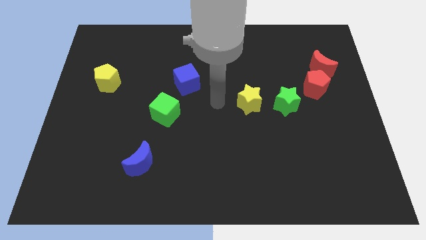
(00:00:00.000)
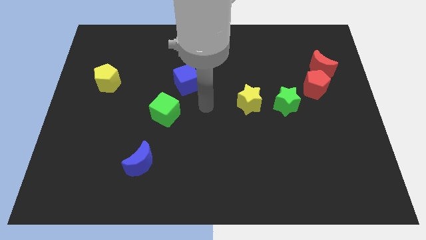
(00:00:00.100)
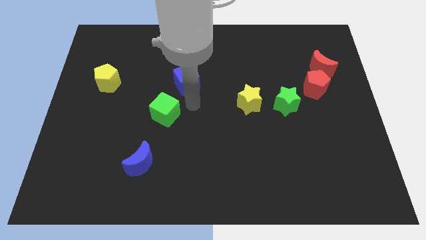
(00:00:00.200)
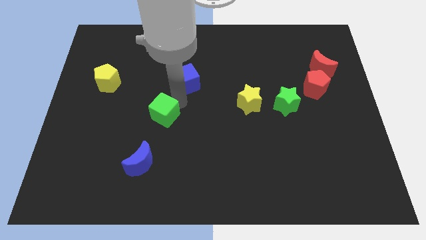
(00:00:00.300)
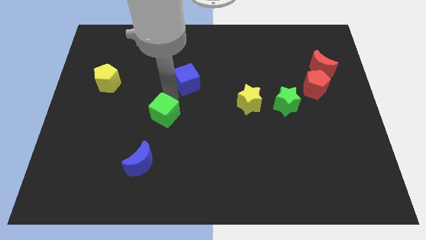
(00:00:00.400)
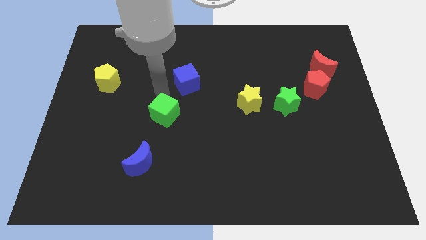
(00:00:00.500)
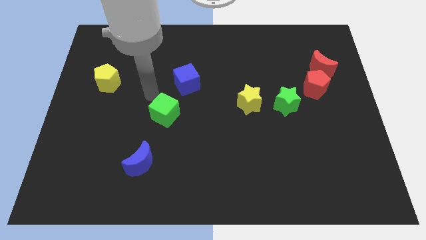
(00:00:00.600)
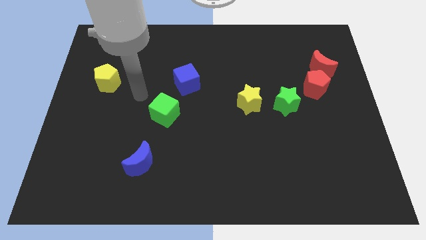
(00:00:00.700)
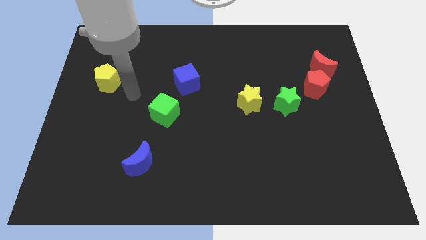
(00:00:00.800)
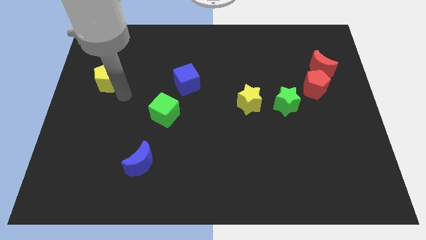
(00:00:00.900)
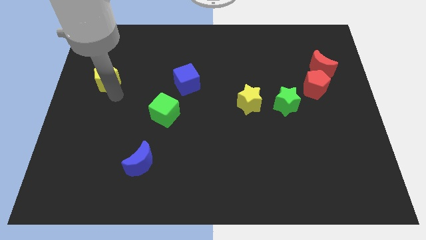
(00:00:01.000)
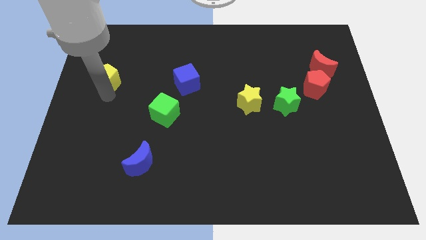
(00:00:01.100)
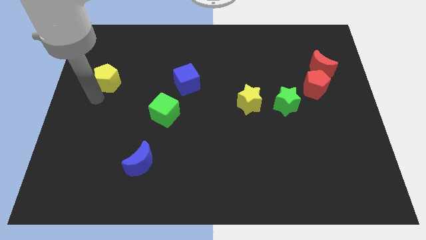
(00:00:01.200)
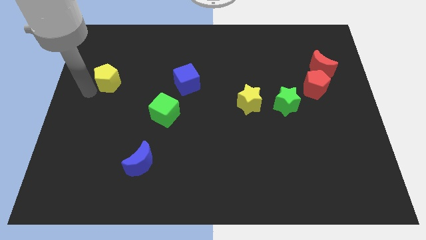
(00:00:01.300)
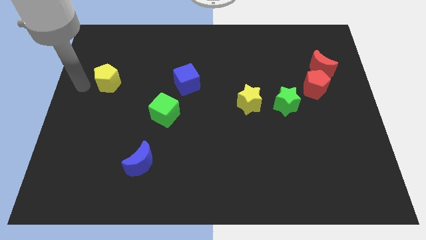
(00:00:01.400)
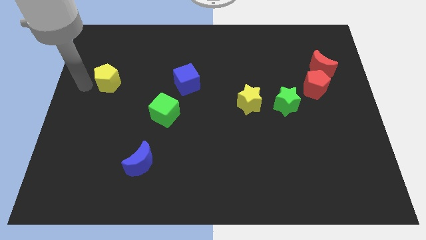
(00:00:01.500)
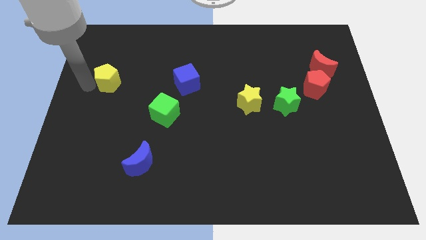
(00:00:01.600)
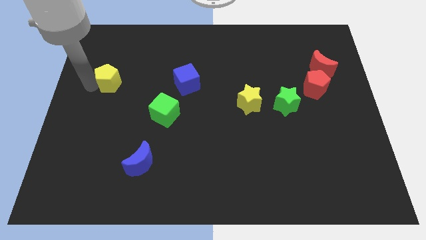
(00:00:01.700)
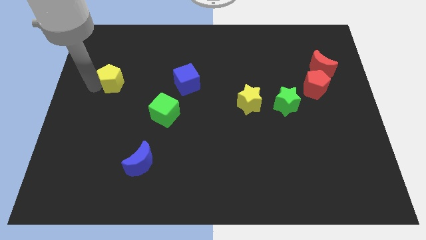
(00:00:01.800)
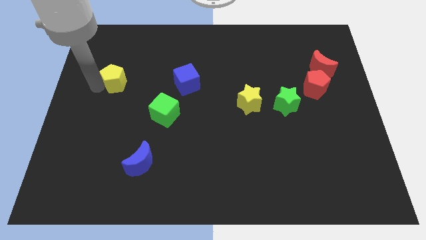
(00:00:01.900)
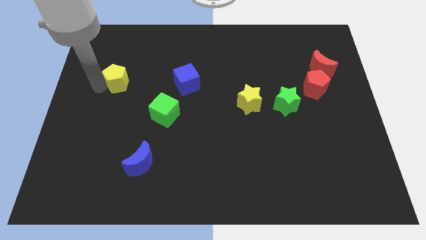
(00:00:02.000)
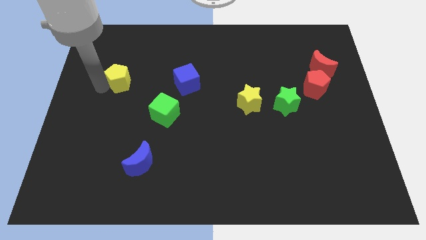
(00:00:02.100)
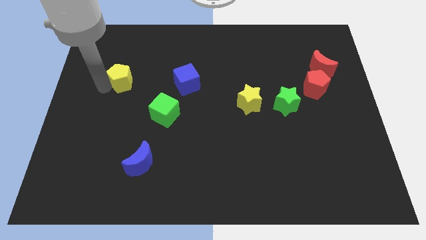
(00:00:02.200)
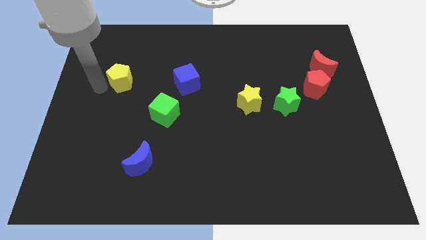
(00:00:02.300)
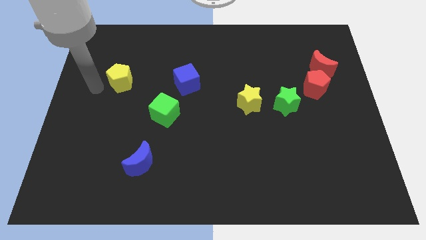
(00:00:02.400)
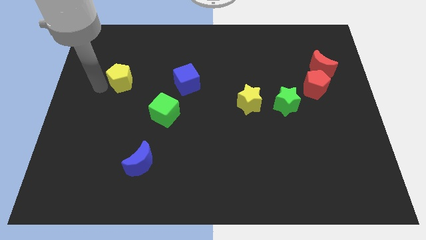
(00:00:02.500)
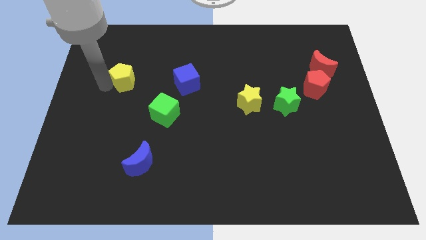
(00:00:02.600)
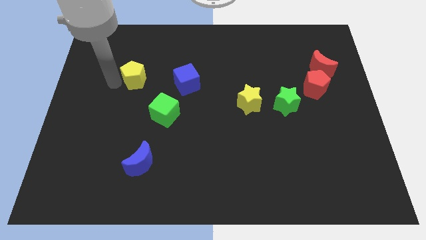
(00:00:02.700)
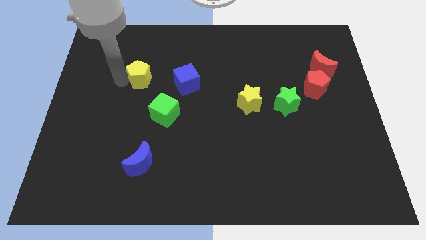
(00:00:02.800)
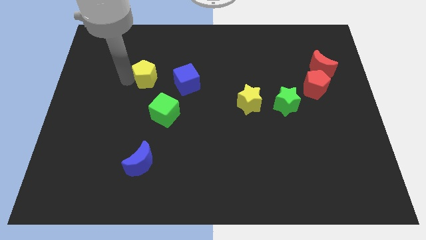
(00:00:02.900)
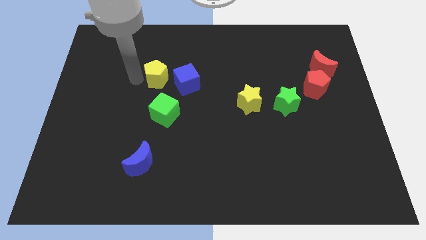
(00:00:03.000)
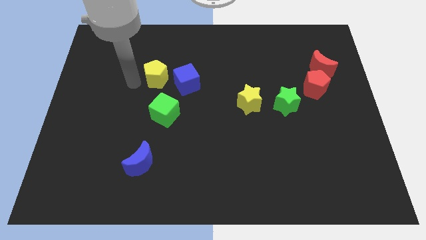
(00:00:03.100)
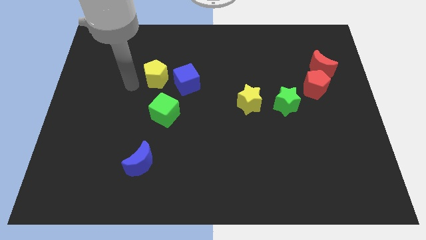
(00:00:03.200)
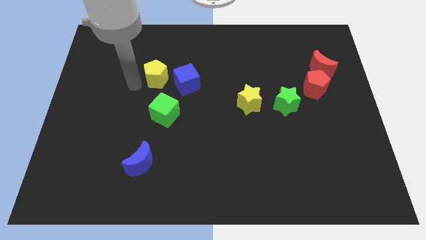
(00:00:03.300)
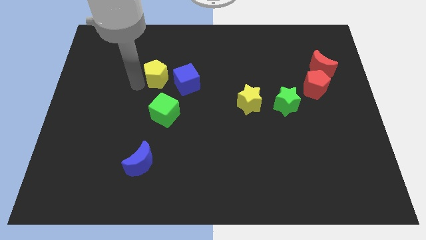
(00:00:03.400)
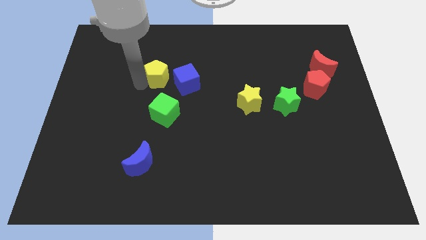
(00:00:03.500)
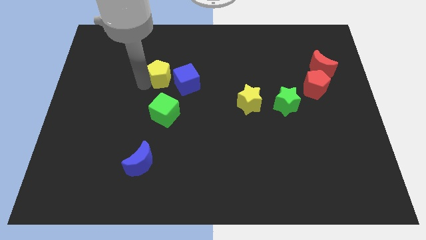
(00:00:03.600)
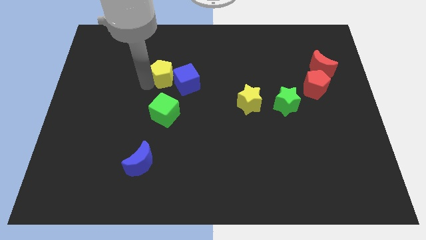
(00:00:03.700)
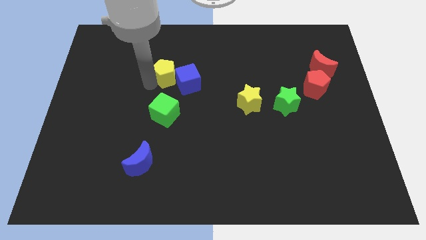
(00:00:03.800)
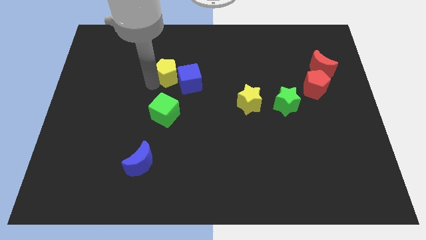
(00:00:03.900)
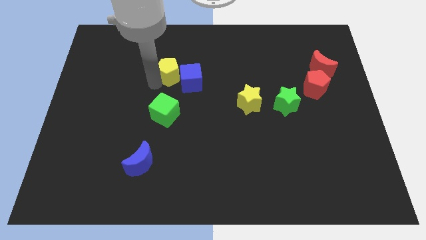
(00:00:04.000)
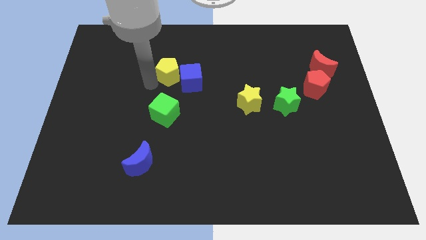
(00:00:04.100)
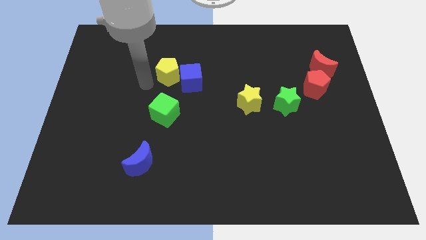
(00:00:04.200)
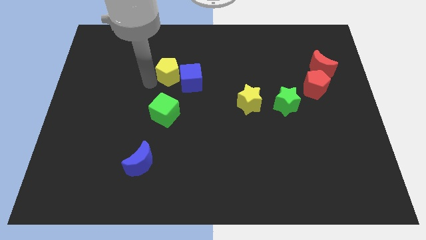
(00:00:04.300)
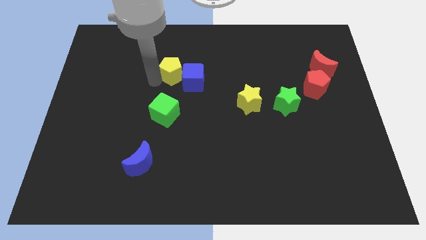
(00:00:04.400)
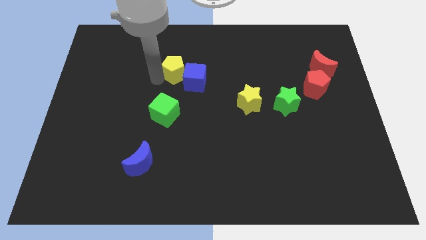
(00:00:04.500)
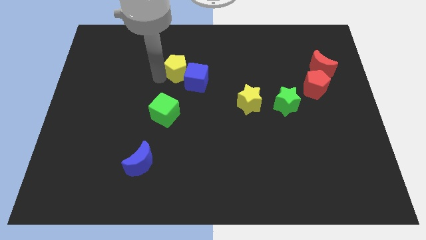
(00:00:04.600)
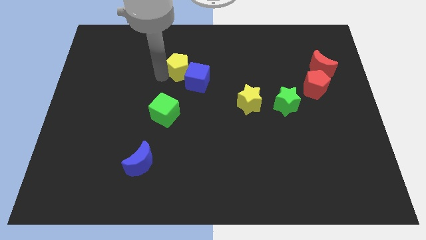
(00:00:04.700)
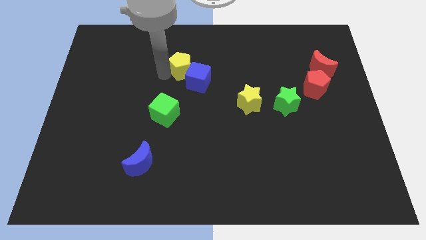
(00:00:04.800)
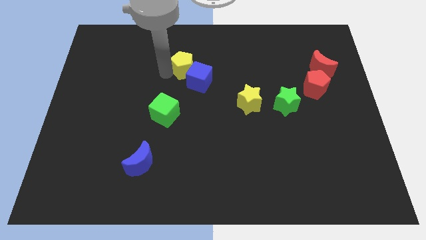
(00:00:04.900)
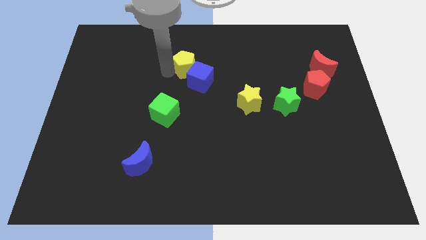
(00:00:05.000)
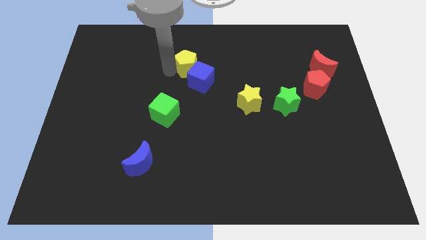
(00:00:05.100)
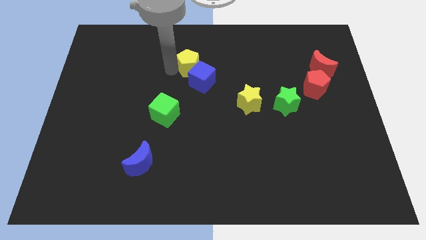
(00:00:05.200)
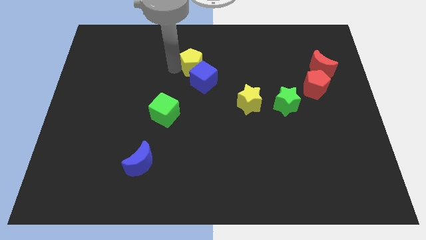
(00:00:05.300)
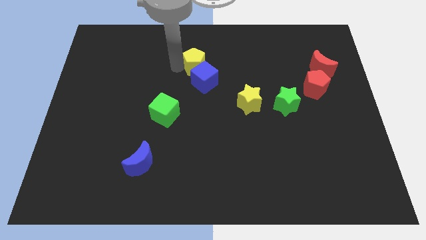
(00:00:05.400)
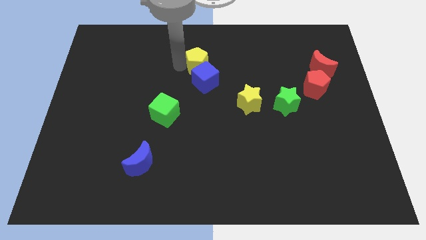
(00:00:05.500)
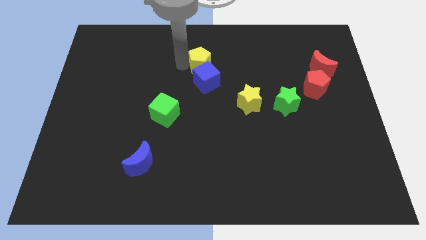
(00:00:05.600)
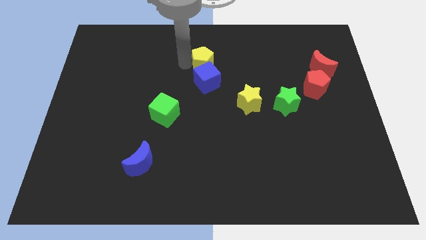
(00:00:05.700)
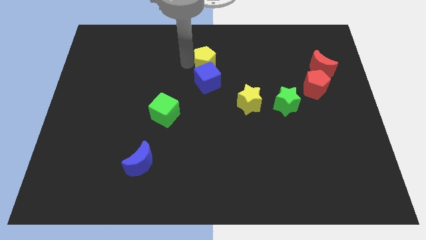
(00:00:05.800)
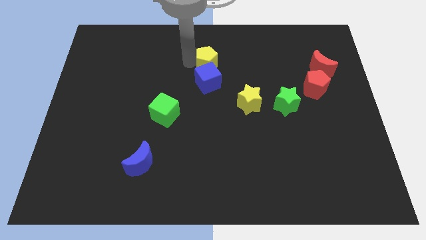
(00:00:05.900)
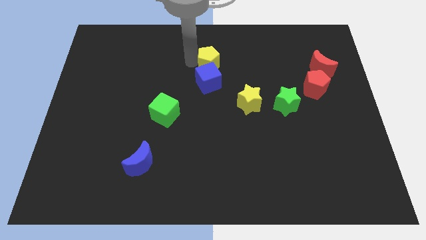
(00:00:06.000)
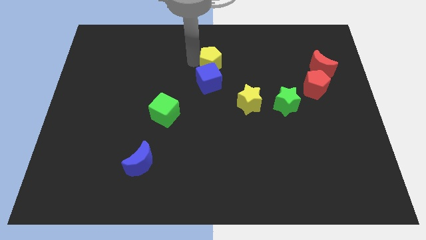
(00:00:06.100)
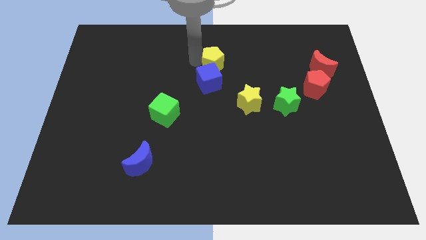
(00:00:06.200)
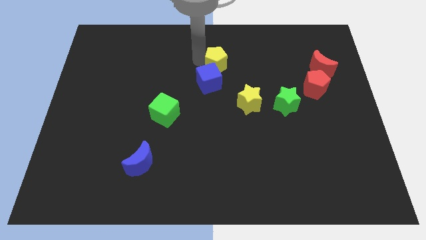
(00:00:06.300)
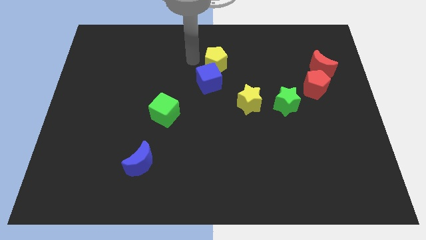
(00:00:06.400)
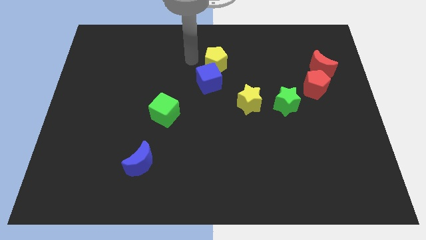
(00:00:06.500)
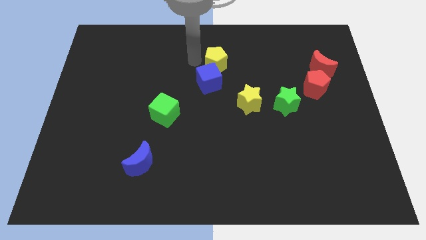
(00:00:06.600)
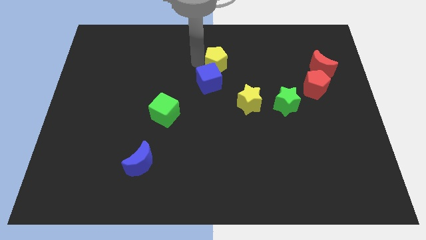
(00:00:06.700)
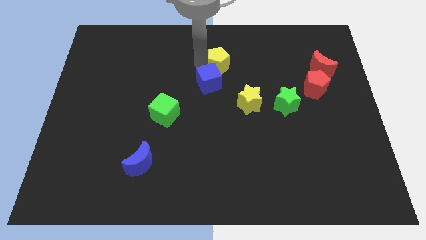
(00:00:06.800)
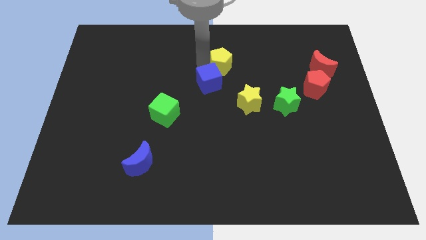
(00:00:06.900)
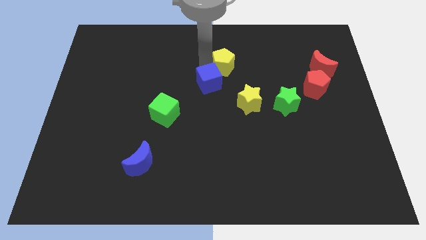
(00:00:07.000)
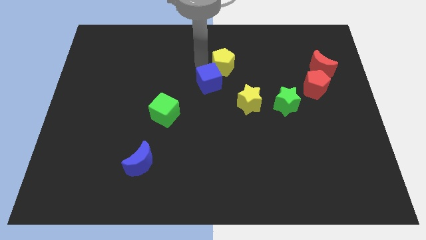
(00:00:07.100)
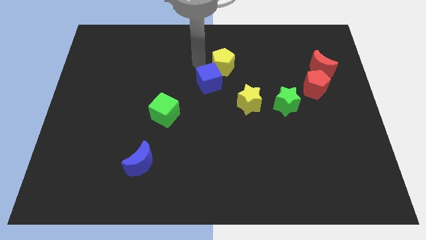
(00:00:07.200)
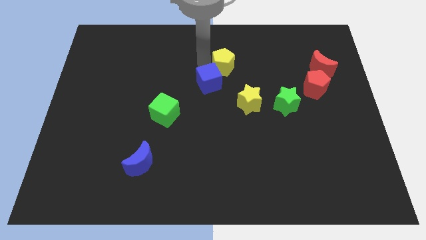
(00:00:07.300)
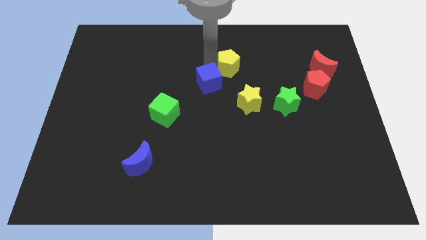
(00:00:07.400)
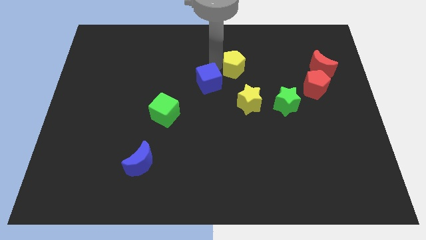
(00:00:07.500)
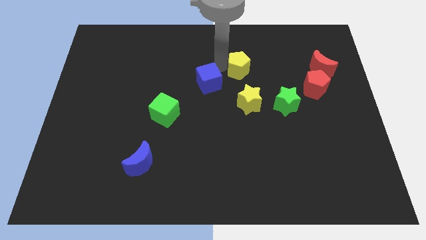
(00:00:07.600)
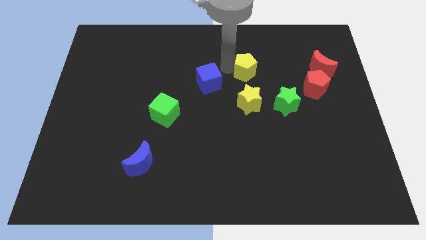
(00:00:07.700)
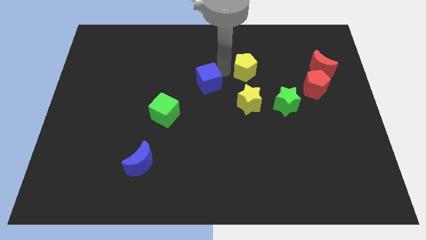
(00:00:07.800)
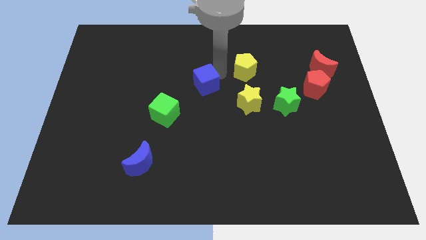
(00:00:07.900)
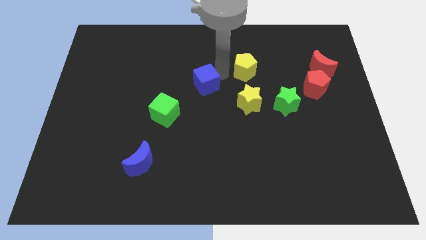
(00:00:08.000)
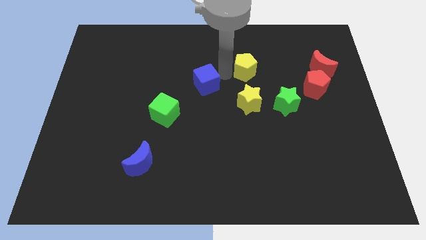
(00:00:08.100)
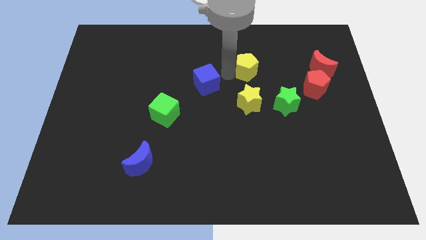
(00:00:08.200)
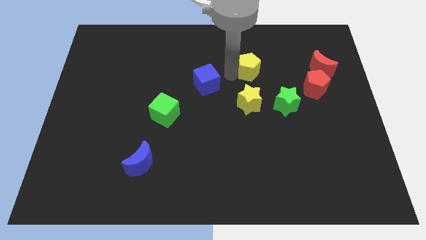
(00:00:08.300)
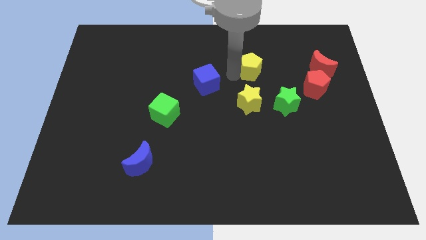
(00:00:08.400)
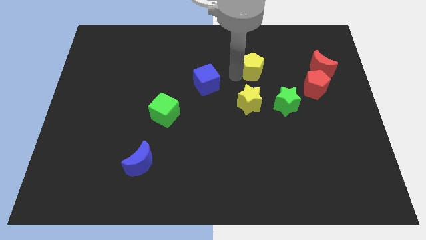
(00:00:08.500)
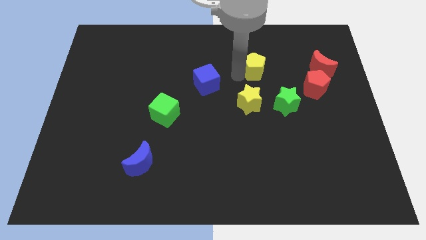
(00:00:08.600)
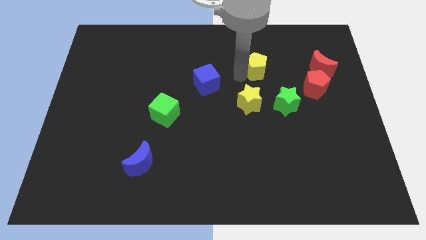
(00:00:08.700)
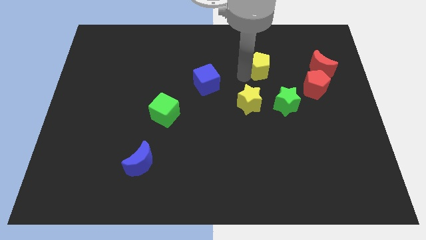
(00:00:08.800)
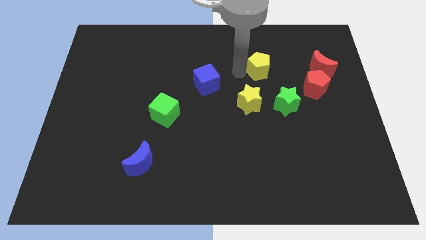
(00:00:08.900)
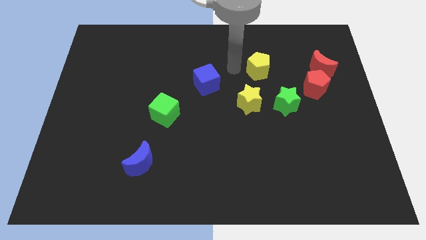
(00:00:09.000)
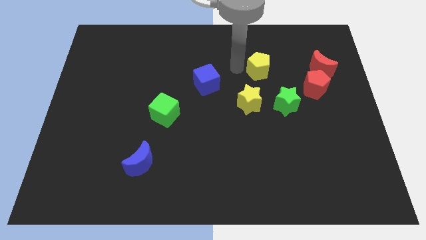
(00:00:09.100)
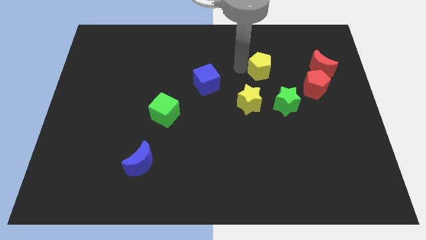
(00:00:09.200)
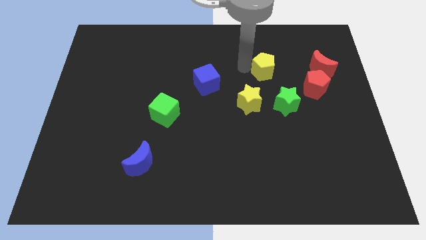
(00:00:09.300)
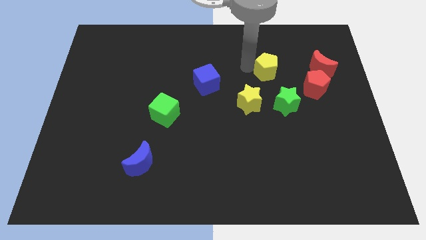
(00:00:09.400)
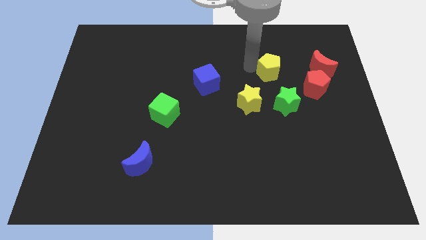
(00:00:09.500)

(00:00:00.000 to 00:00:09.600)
put the yellow pentagon diagonally up and to the left of the red pentagon
